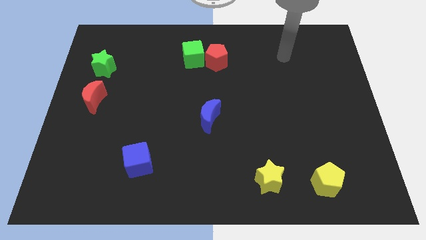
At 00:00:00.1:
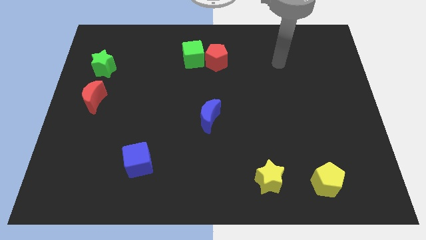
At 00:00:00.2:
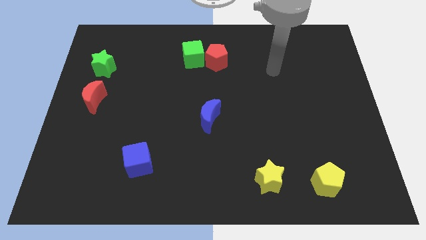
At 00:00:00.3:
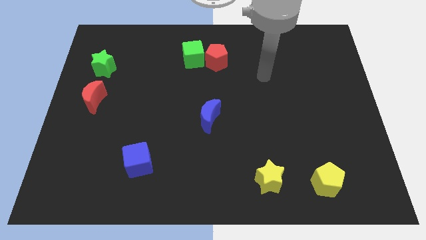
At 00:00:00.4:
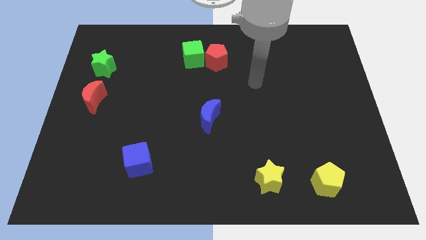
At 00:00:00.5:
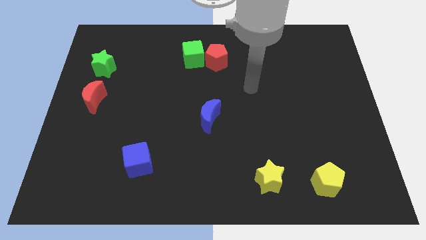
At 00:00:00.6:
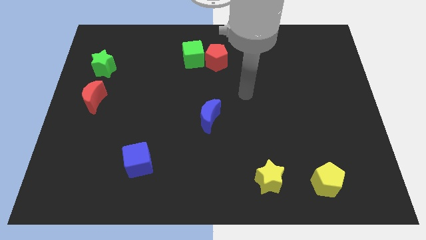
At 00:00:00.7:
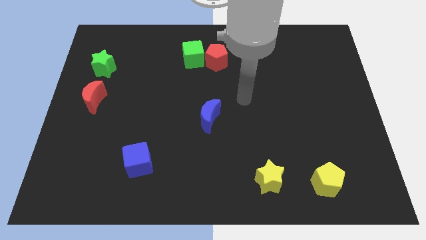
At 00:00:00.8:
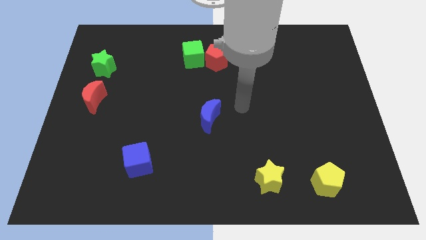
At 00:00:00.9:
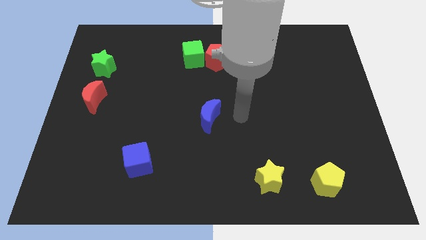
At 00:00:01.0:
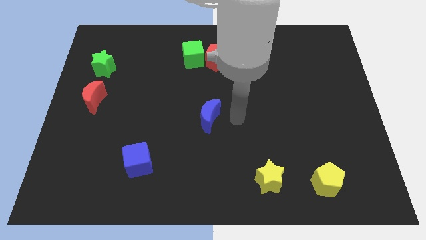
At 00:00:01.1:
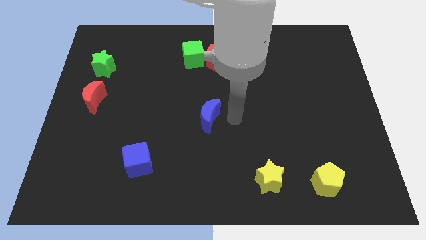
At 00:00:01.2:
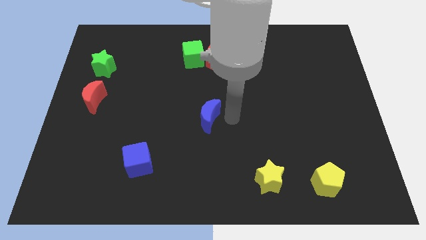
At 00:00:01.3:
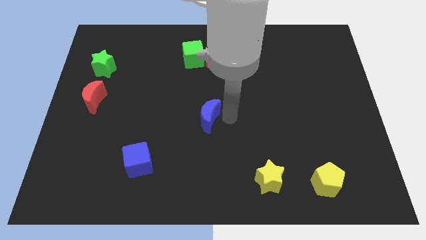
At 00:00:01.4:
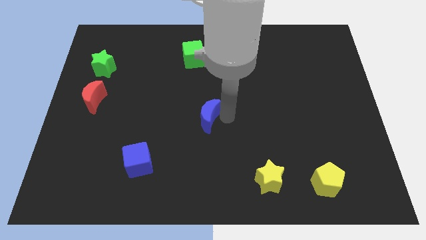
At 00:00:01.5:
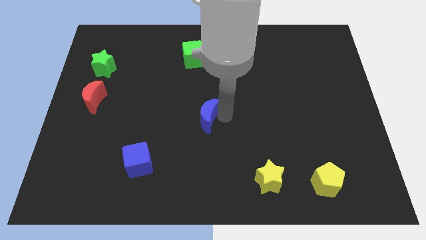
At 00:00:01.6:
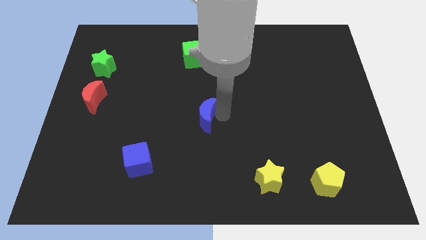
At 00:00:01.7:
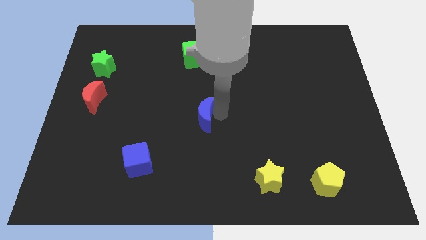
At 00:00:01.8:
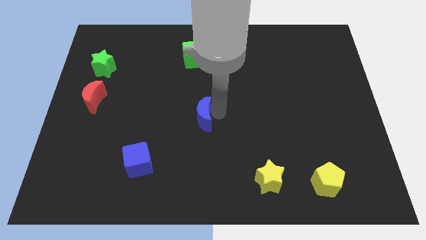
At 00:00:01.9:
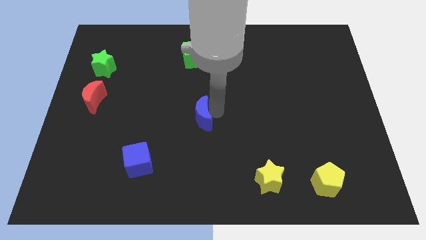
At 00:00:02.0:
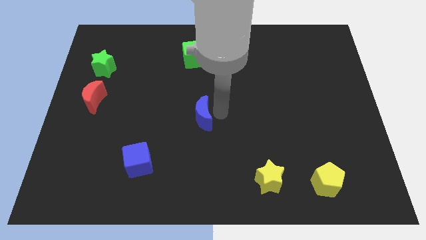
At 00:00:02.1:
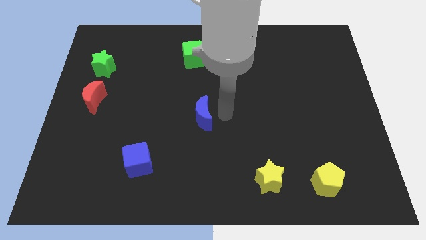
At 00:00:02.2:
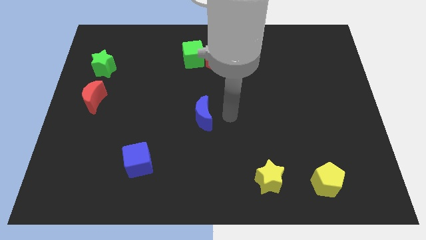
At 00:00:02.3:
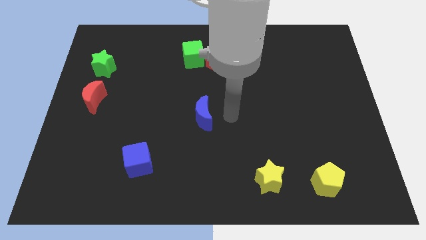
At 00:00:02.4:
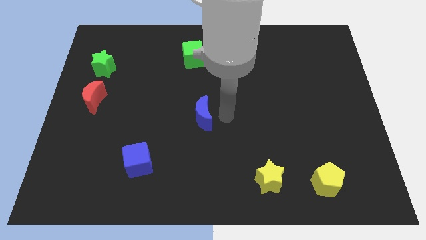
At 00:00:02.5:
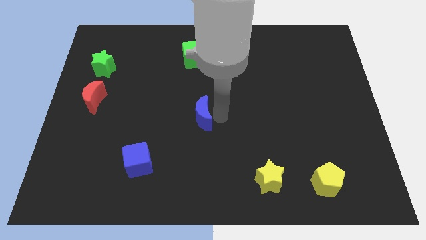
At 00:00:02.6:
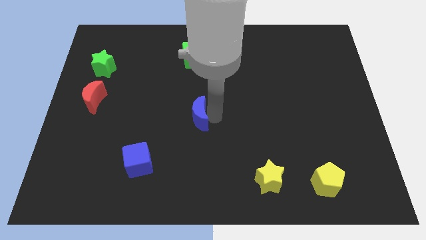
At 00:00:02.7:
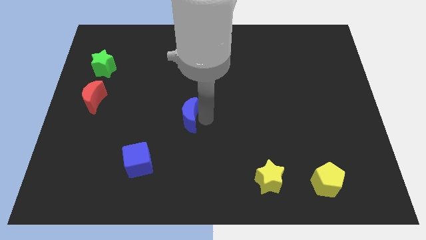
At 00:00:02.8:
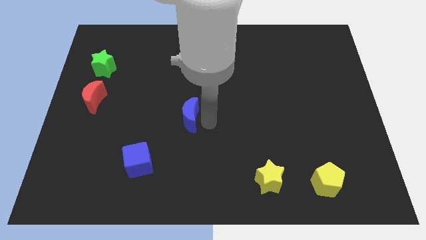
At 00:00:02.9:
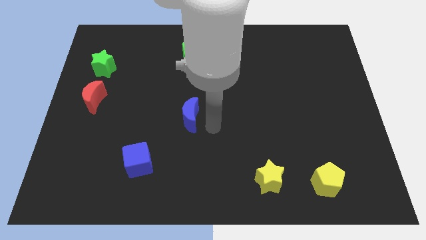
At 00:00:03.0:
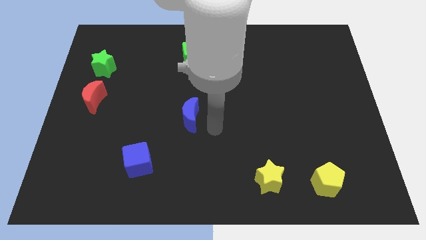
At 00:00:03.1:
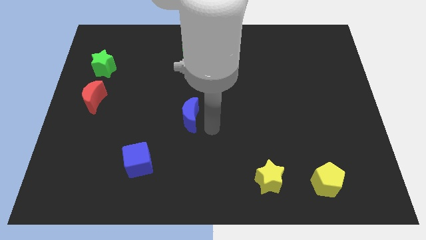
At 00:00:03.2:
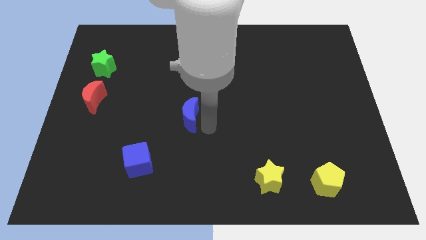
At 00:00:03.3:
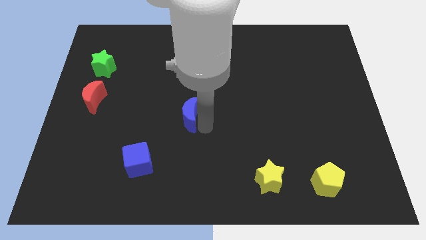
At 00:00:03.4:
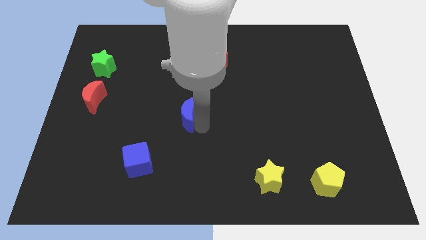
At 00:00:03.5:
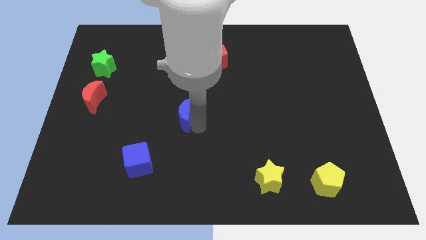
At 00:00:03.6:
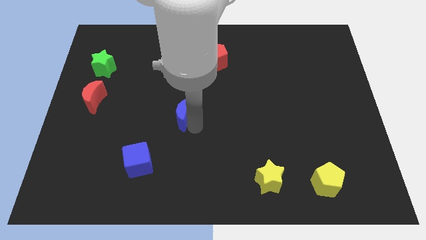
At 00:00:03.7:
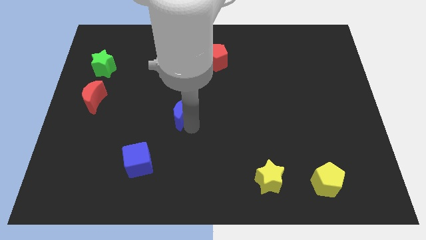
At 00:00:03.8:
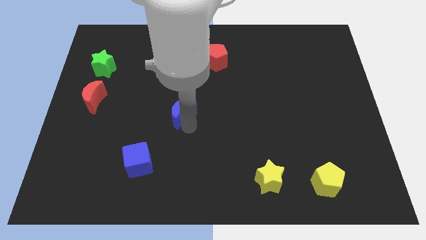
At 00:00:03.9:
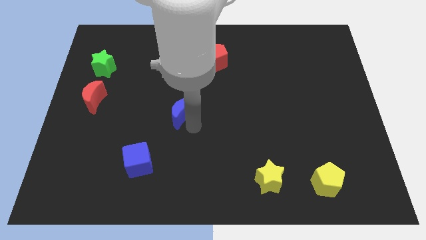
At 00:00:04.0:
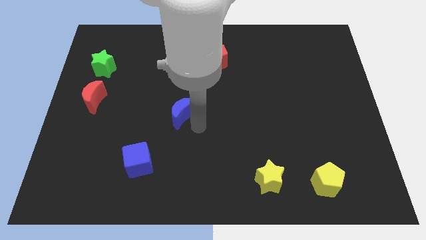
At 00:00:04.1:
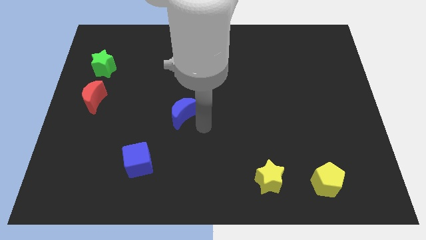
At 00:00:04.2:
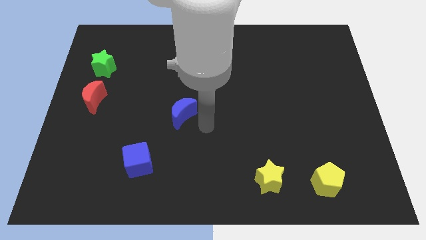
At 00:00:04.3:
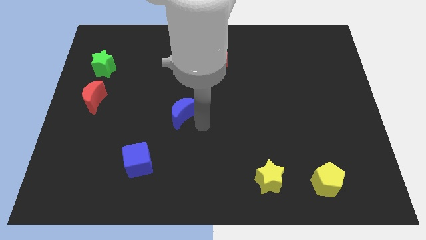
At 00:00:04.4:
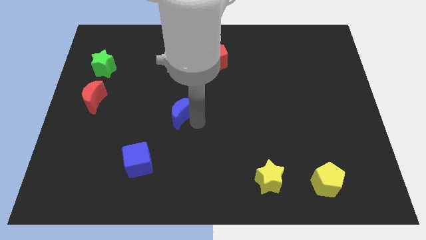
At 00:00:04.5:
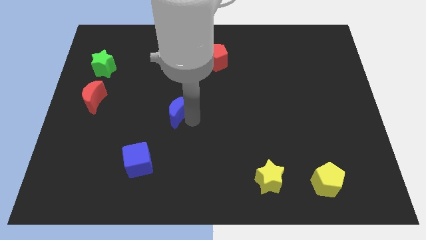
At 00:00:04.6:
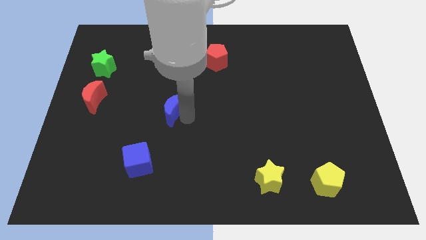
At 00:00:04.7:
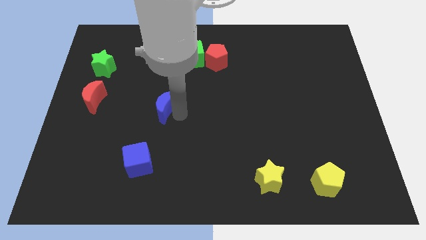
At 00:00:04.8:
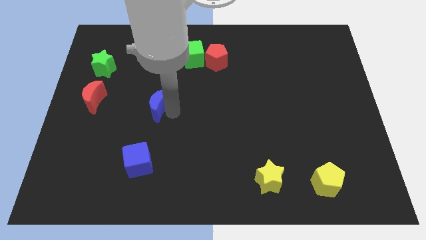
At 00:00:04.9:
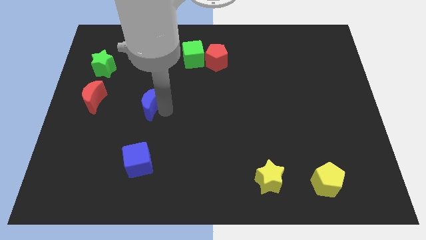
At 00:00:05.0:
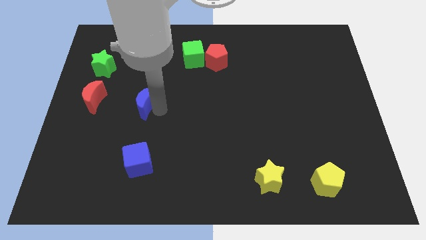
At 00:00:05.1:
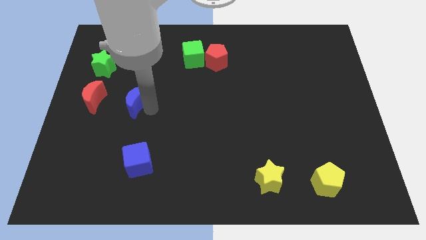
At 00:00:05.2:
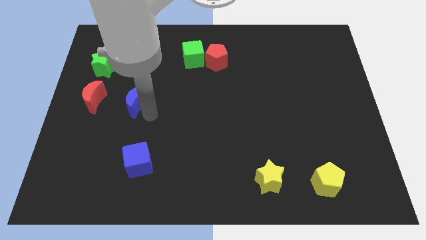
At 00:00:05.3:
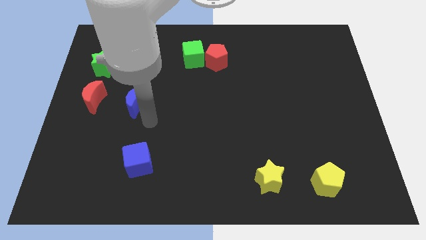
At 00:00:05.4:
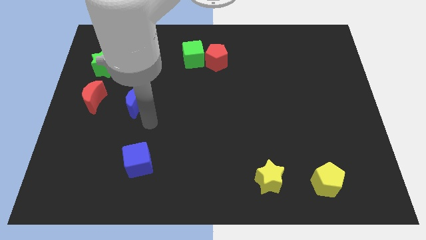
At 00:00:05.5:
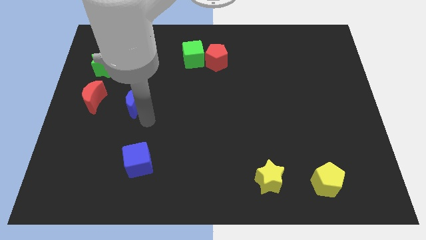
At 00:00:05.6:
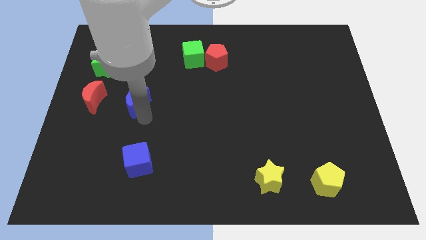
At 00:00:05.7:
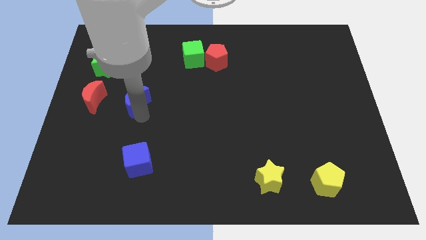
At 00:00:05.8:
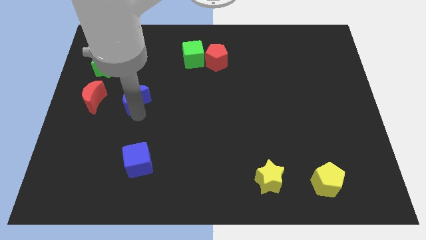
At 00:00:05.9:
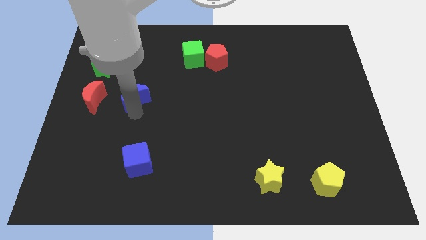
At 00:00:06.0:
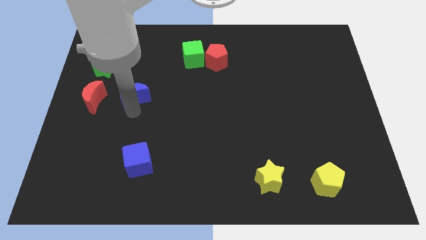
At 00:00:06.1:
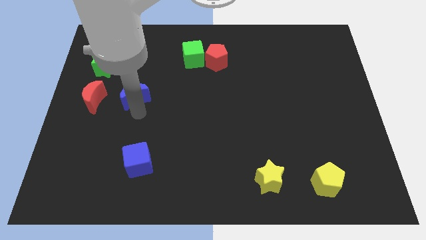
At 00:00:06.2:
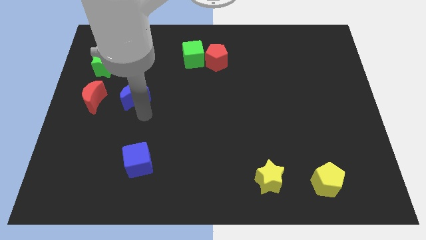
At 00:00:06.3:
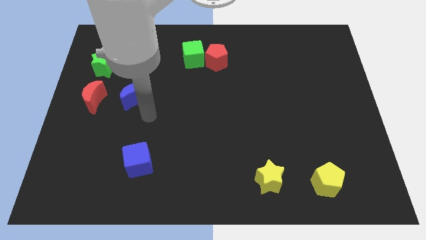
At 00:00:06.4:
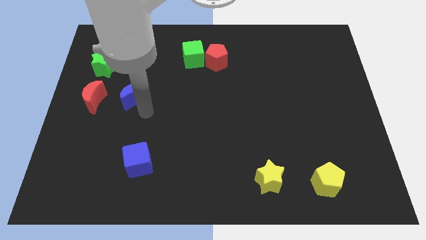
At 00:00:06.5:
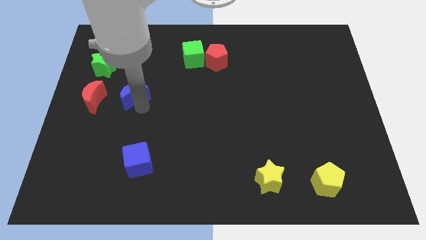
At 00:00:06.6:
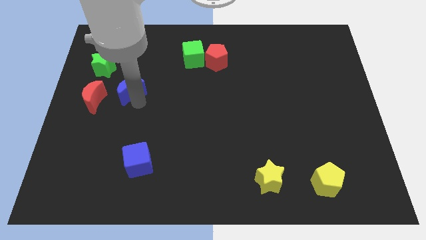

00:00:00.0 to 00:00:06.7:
push the blue moon to the bottom right of the green star

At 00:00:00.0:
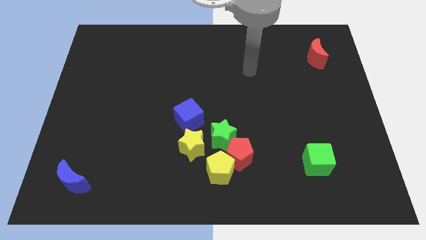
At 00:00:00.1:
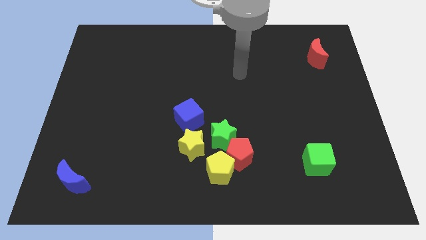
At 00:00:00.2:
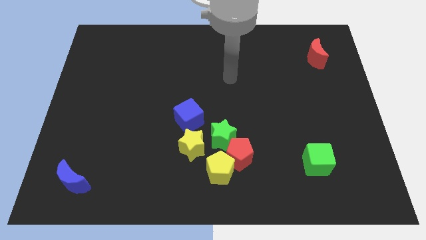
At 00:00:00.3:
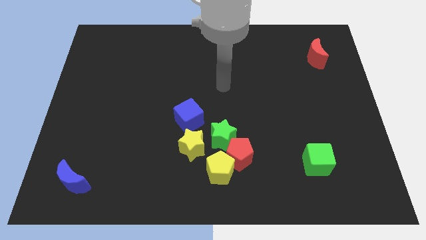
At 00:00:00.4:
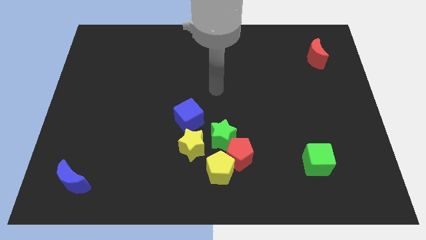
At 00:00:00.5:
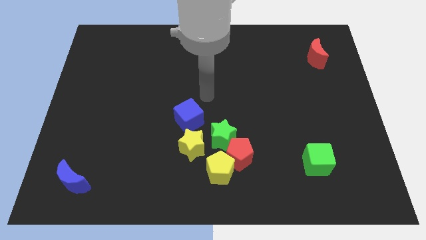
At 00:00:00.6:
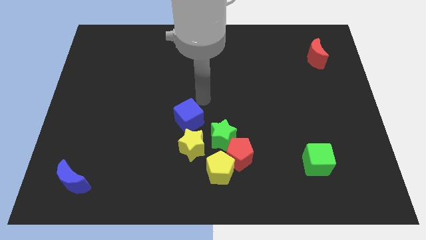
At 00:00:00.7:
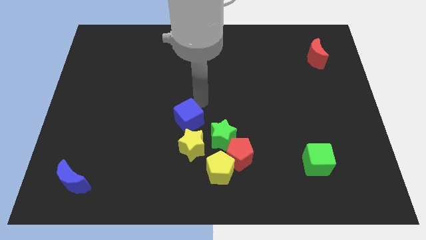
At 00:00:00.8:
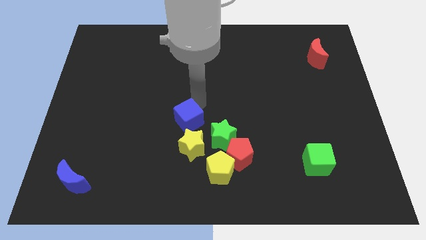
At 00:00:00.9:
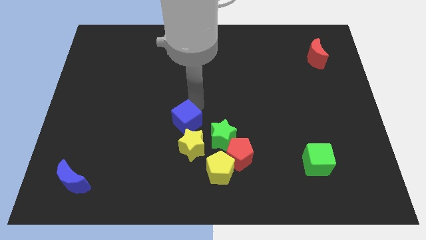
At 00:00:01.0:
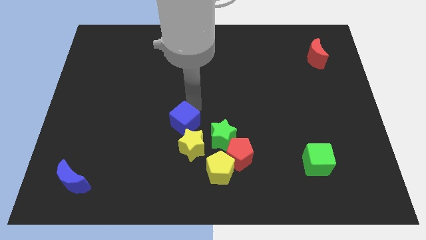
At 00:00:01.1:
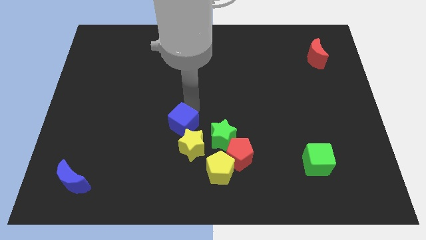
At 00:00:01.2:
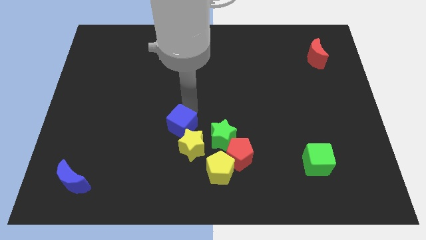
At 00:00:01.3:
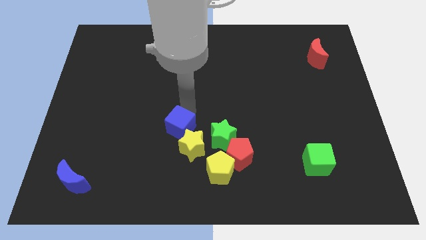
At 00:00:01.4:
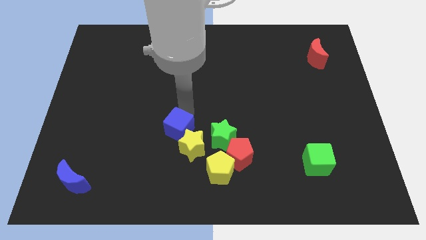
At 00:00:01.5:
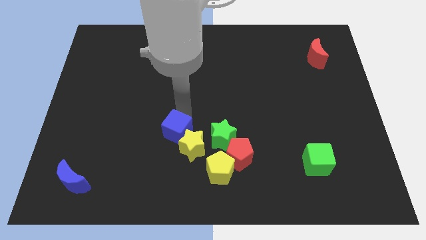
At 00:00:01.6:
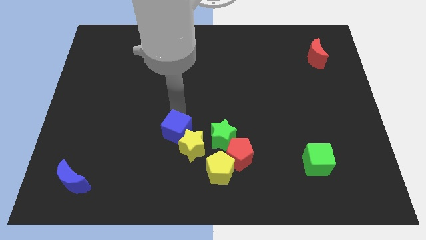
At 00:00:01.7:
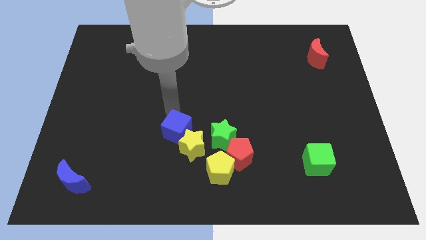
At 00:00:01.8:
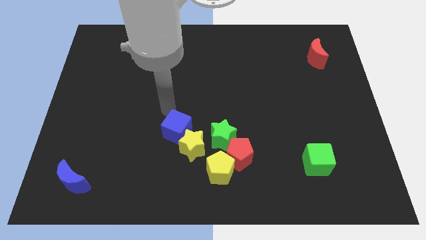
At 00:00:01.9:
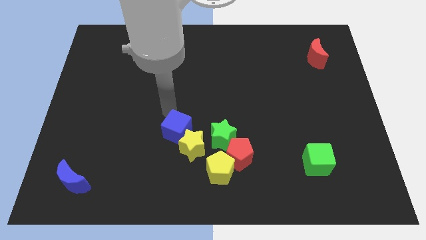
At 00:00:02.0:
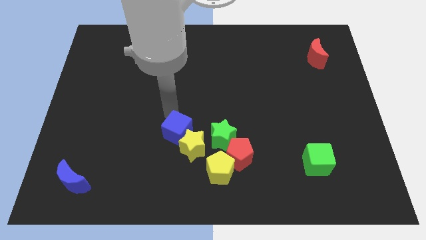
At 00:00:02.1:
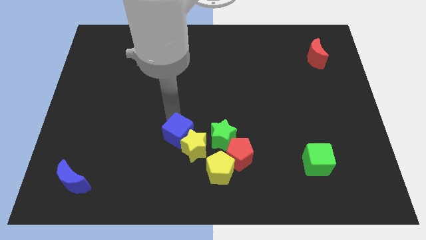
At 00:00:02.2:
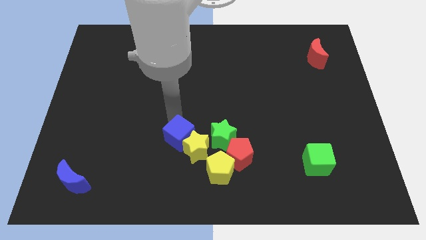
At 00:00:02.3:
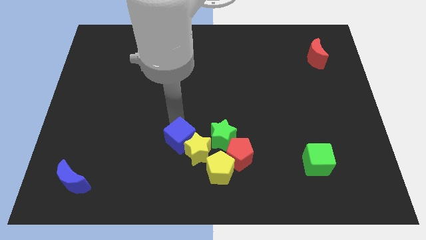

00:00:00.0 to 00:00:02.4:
slide the blue cube just left of the red pentagon
